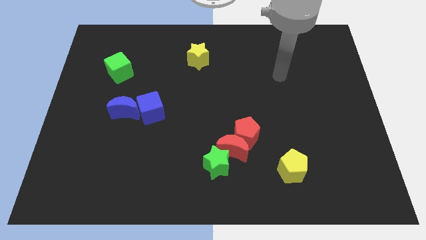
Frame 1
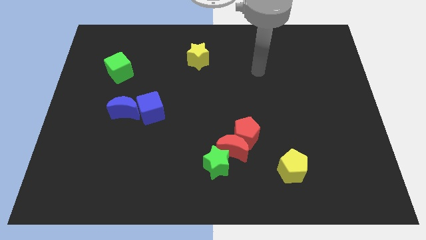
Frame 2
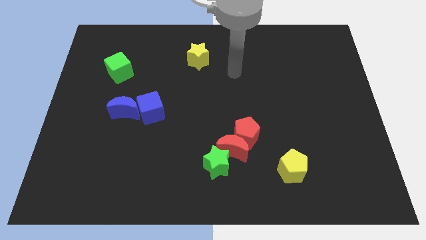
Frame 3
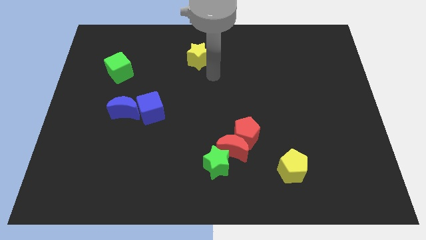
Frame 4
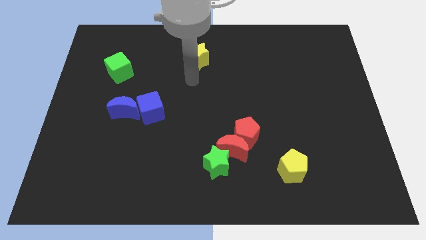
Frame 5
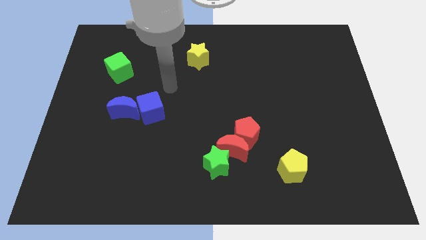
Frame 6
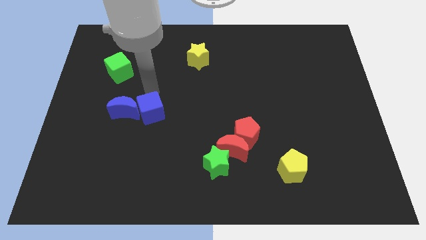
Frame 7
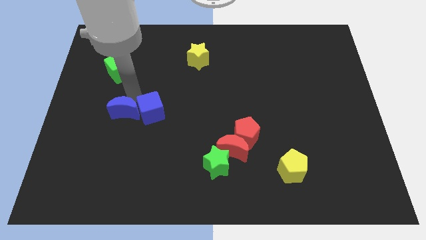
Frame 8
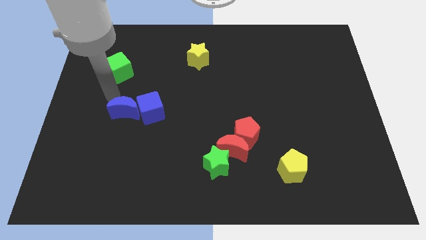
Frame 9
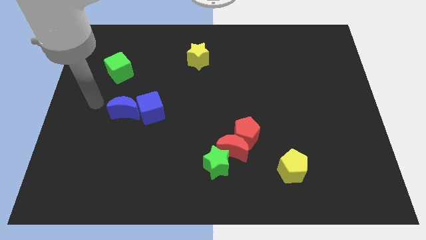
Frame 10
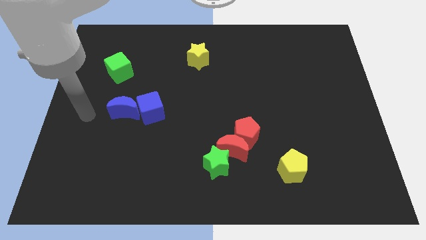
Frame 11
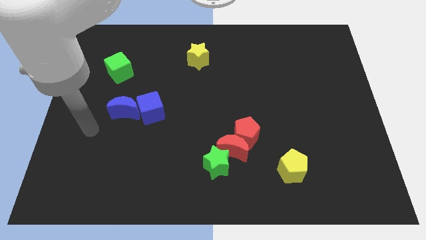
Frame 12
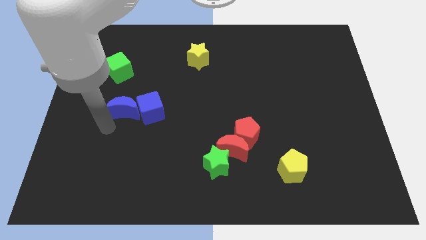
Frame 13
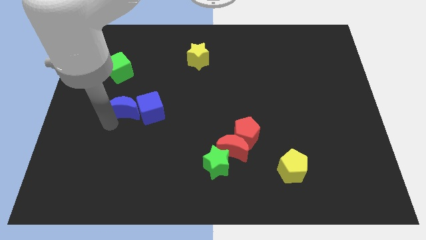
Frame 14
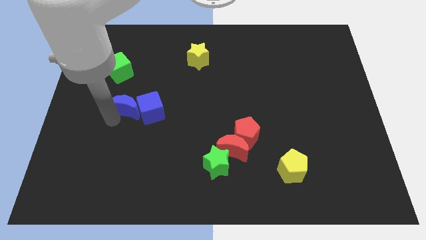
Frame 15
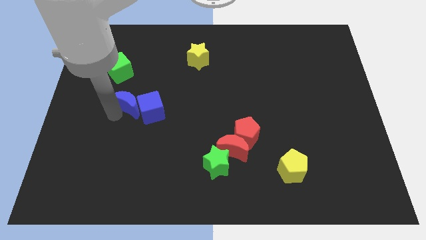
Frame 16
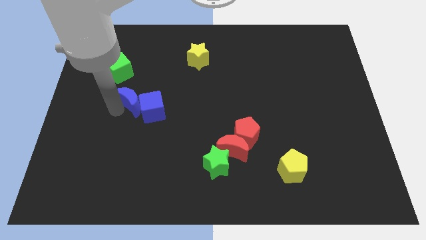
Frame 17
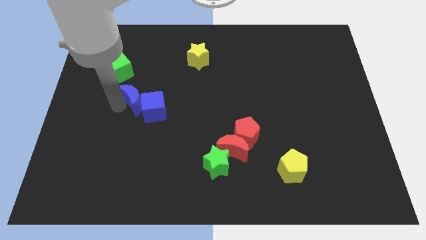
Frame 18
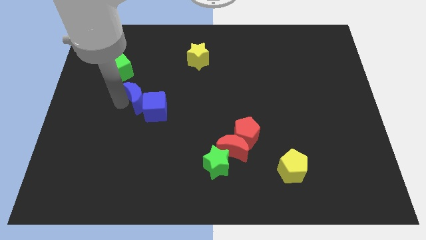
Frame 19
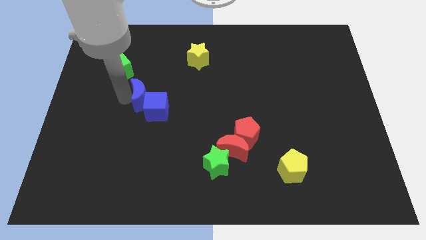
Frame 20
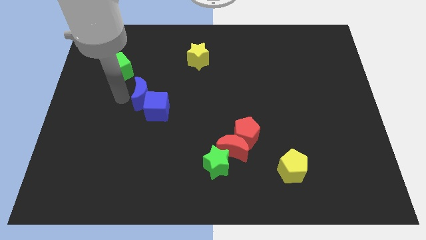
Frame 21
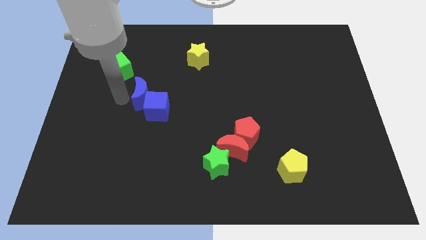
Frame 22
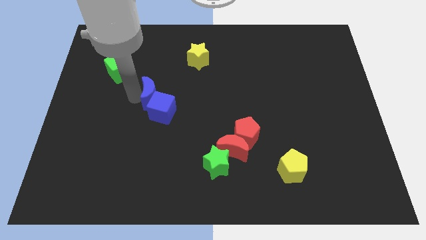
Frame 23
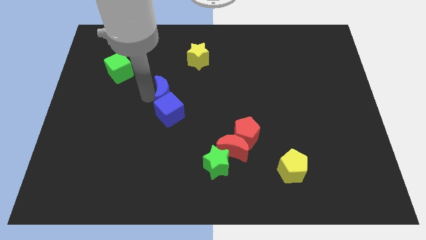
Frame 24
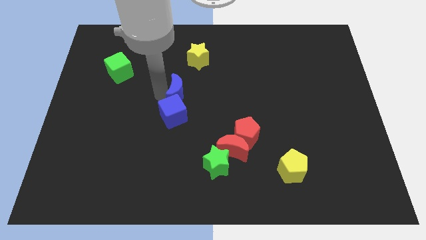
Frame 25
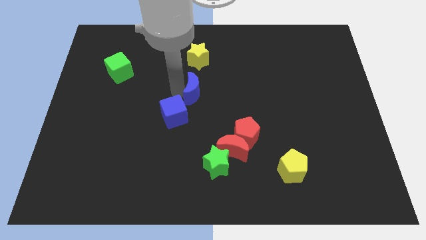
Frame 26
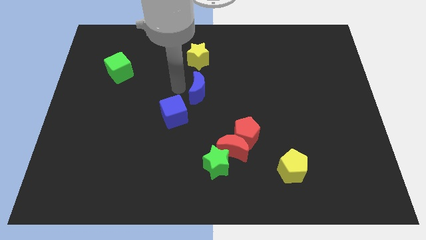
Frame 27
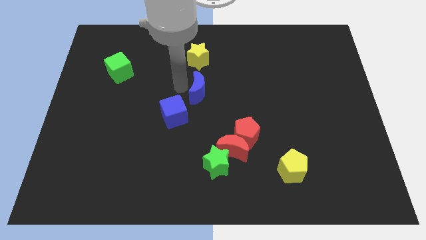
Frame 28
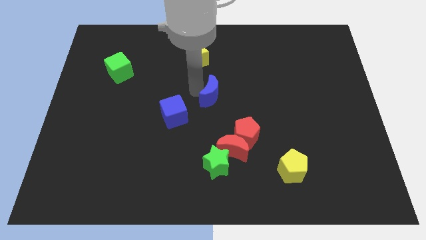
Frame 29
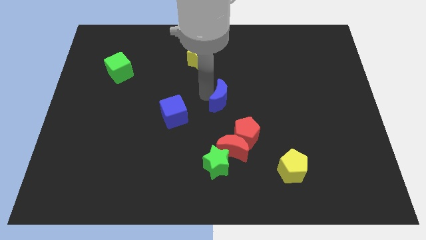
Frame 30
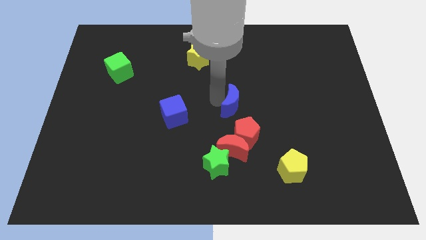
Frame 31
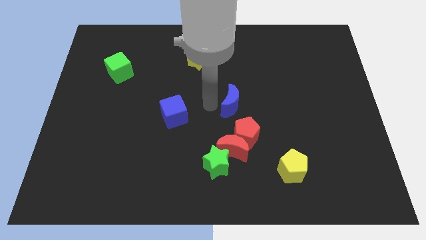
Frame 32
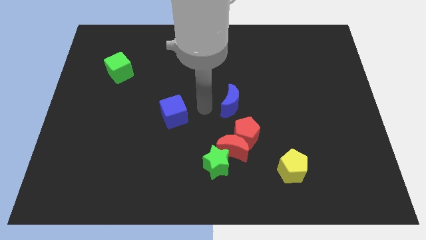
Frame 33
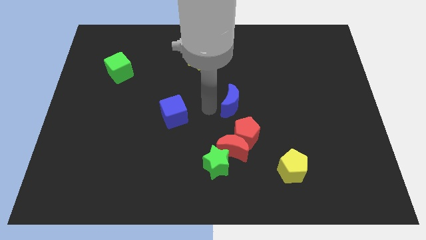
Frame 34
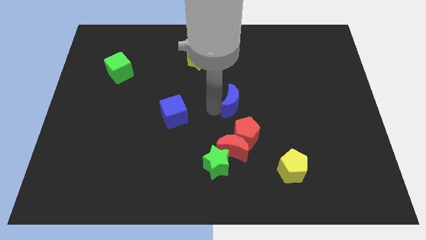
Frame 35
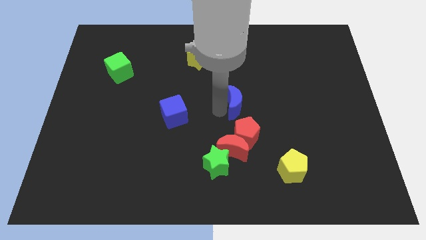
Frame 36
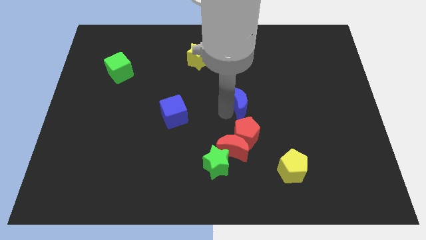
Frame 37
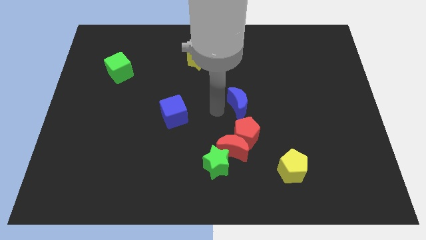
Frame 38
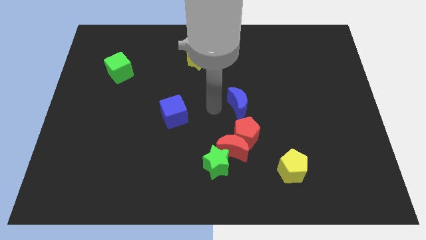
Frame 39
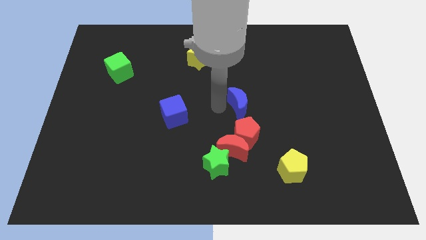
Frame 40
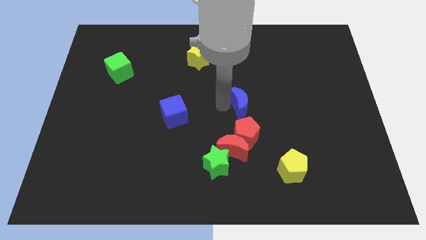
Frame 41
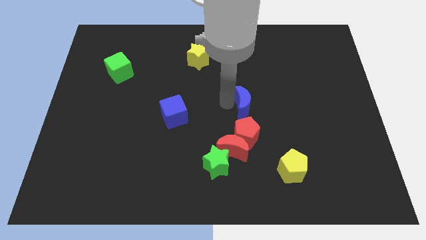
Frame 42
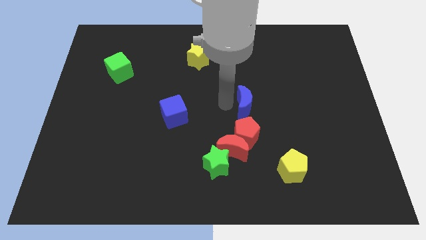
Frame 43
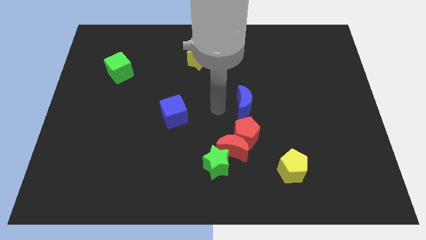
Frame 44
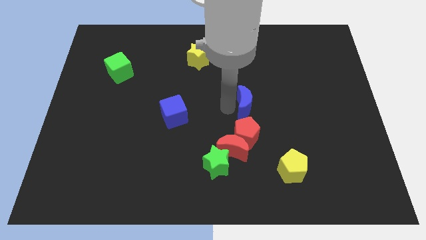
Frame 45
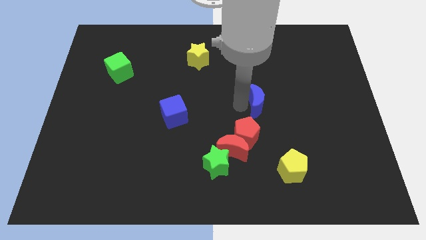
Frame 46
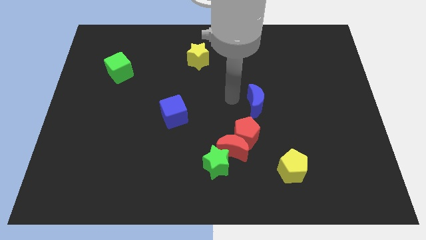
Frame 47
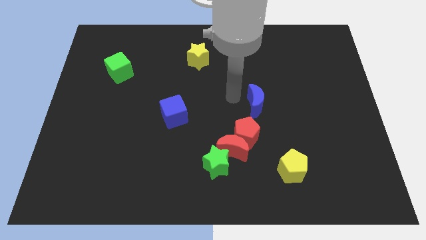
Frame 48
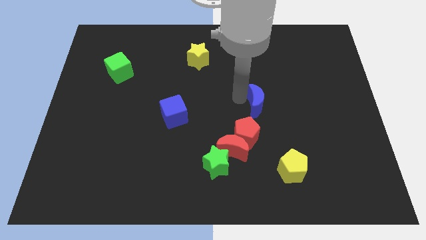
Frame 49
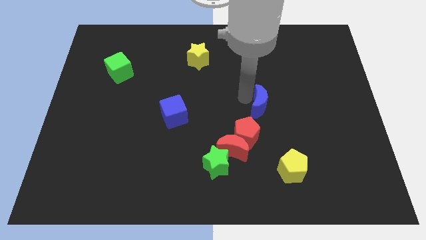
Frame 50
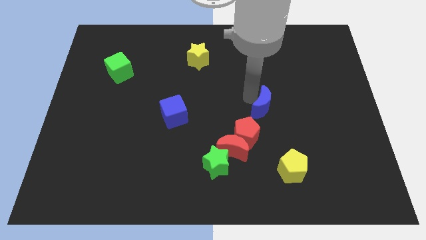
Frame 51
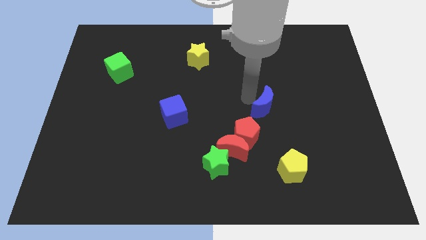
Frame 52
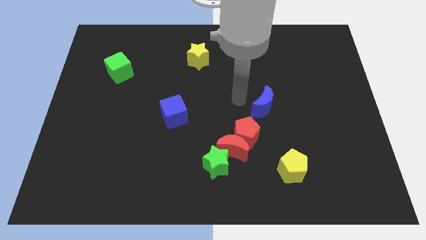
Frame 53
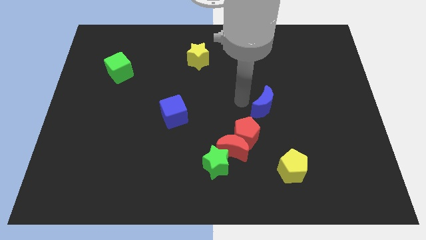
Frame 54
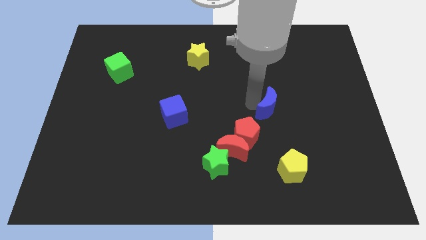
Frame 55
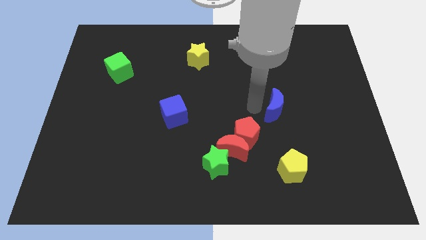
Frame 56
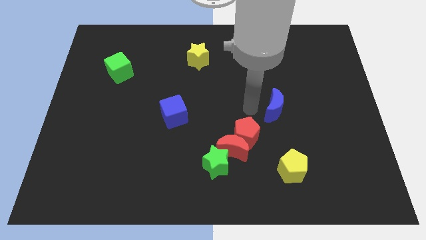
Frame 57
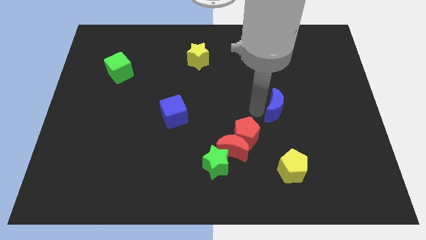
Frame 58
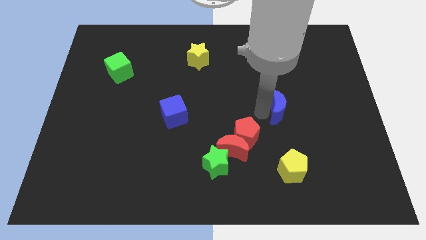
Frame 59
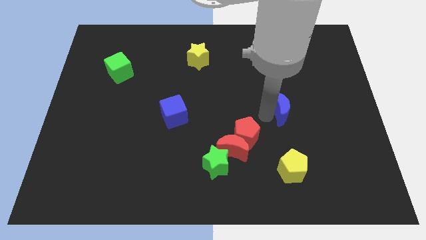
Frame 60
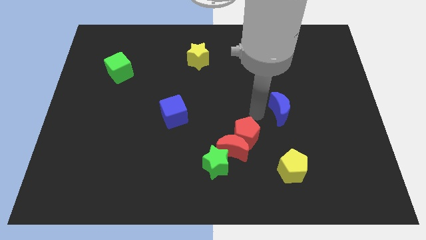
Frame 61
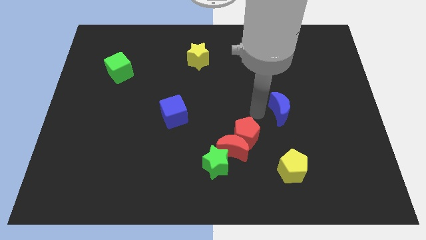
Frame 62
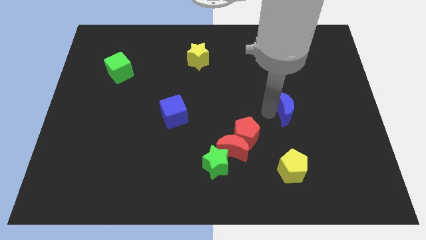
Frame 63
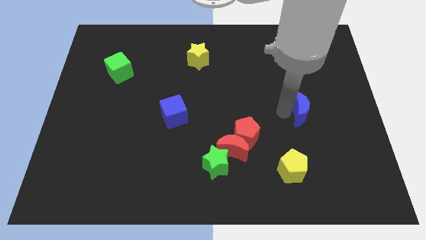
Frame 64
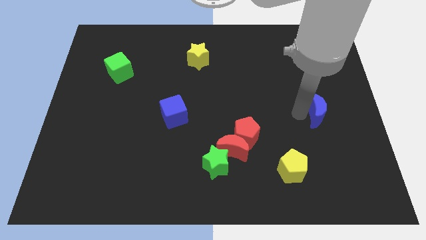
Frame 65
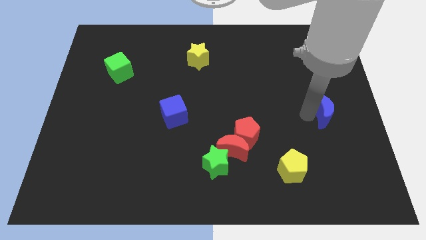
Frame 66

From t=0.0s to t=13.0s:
move the blue moon to the right side
